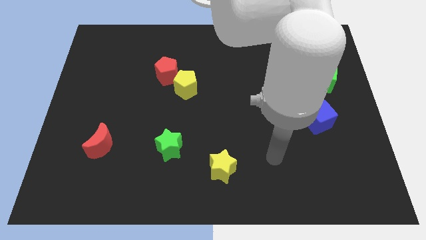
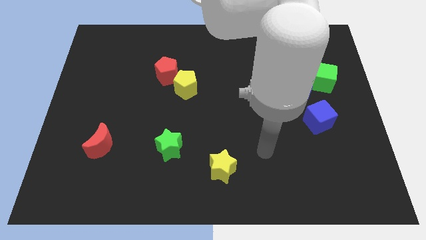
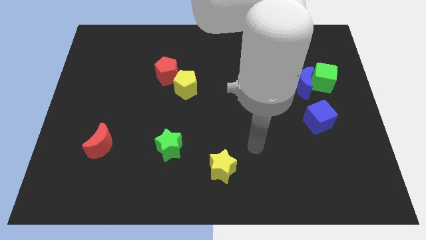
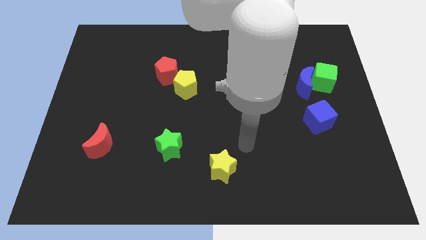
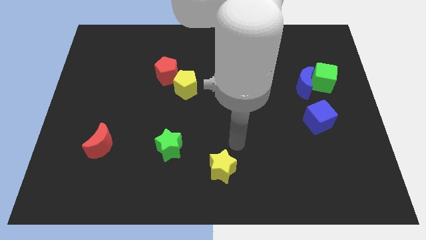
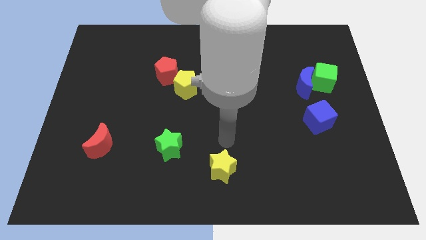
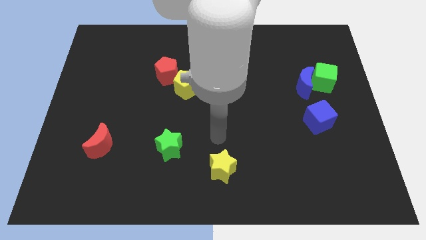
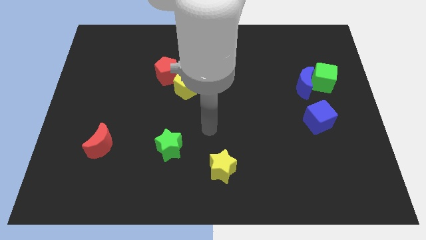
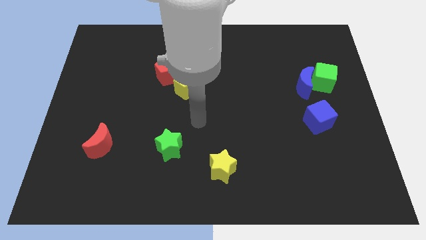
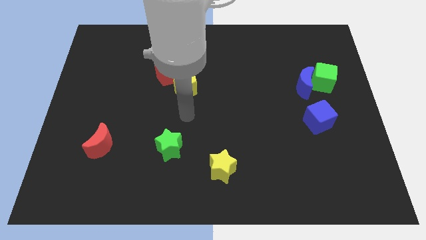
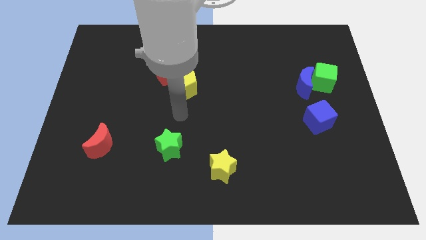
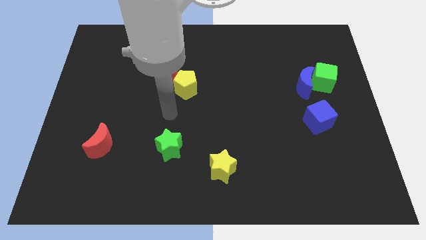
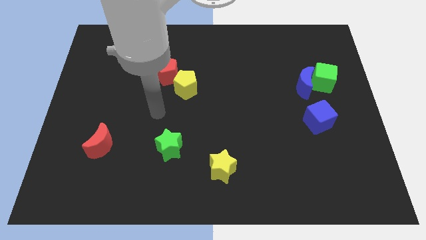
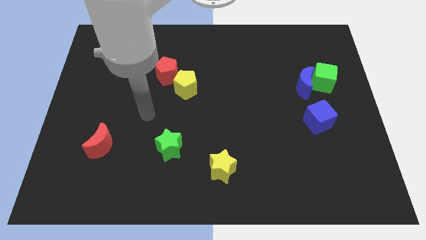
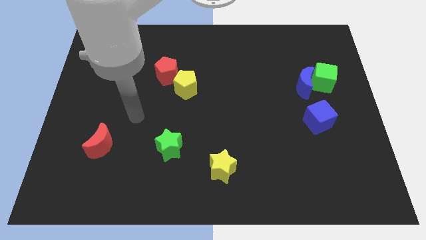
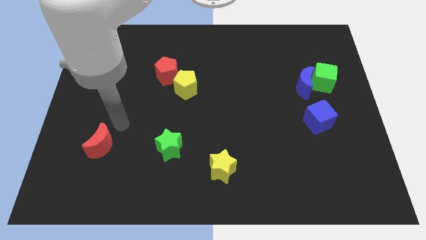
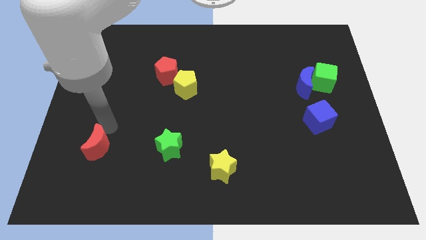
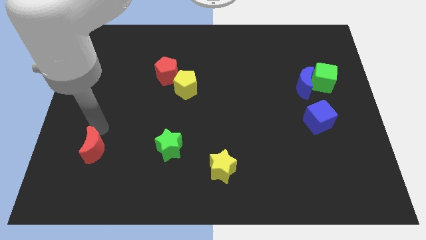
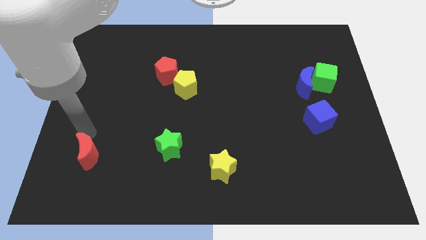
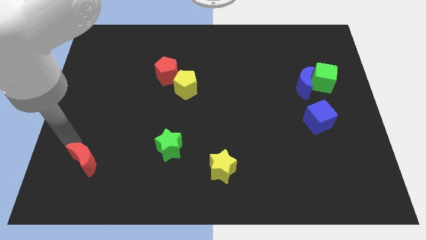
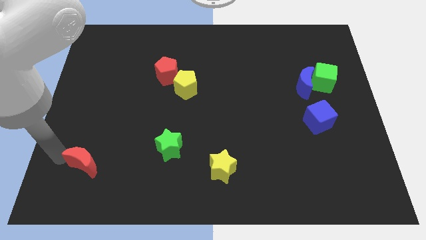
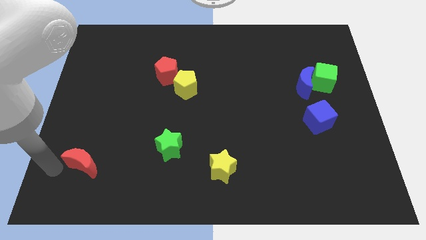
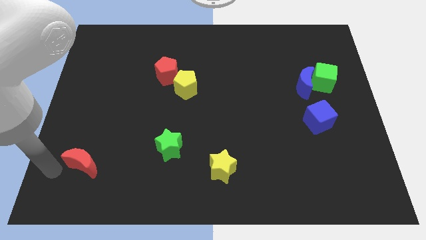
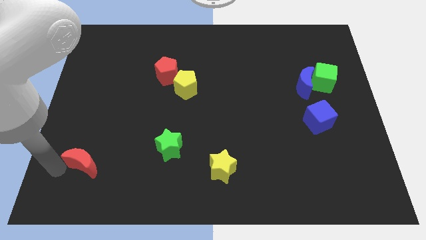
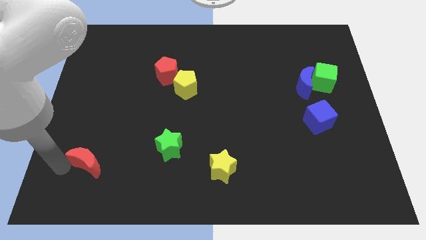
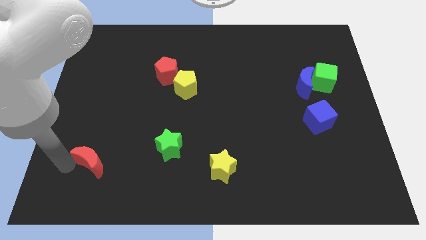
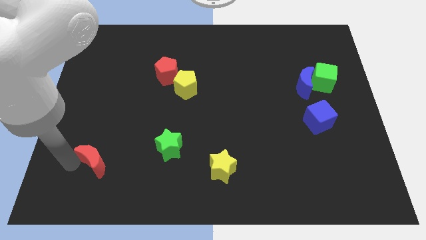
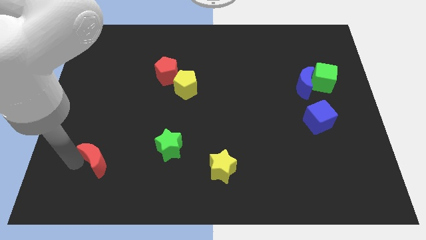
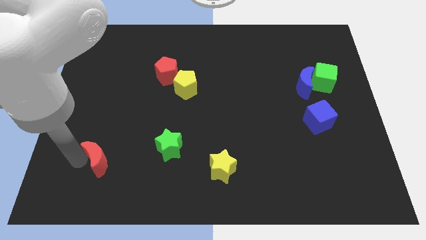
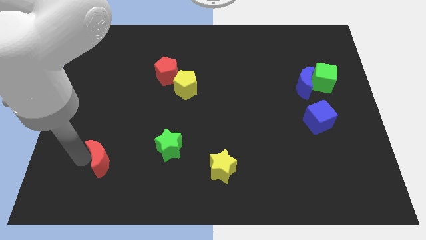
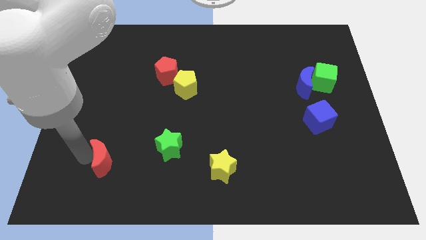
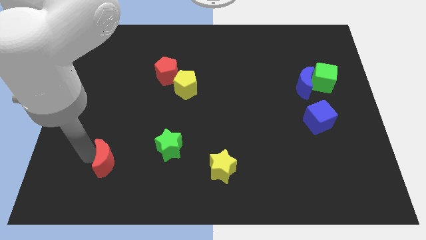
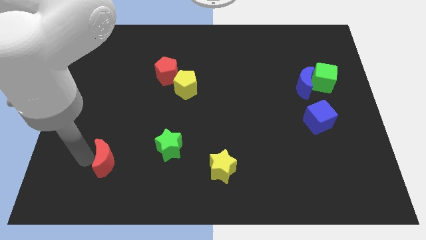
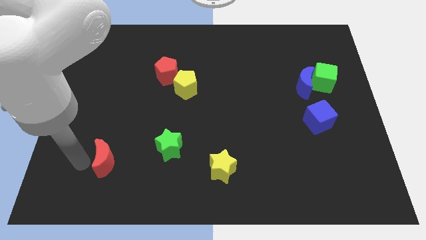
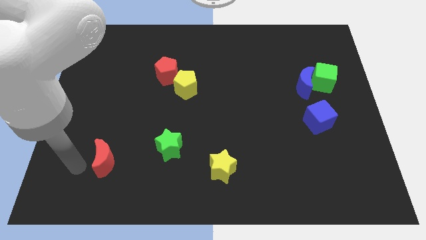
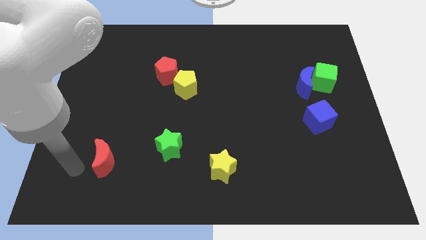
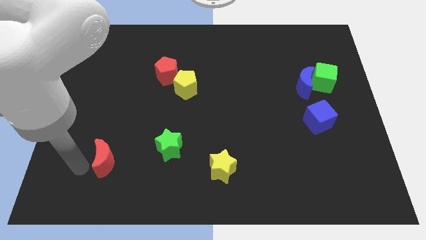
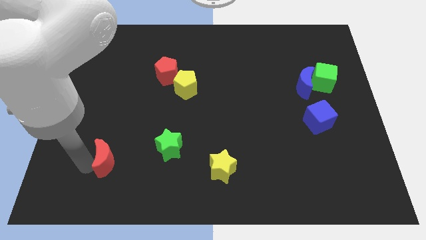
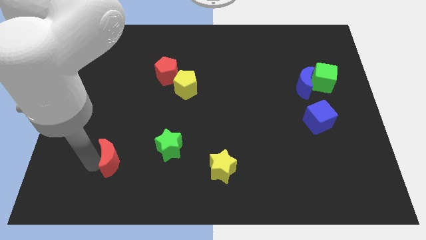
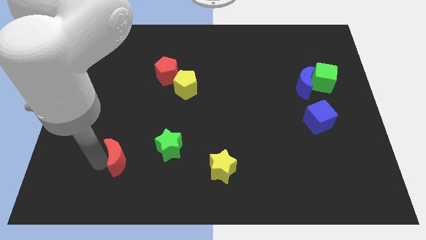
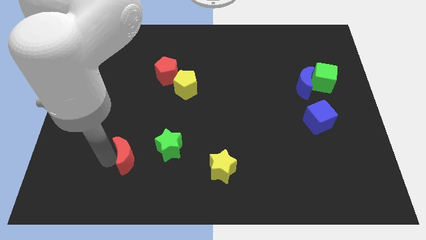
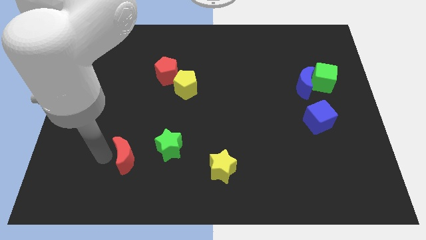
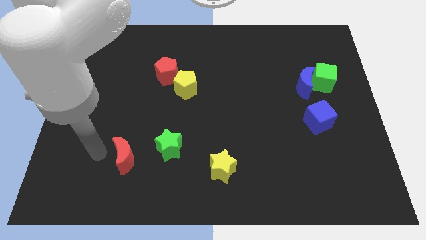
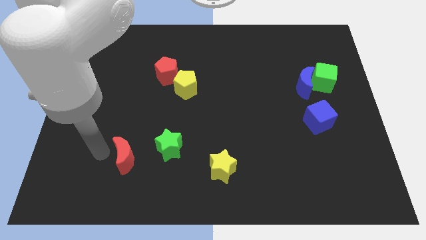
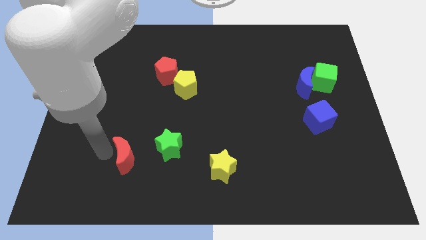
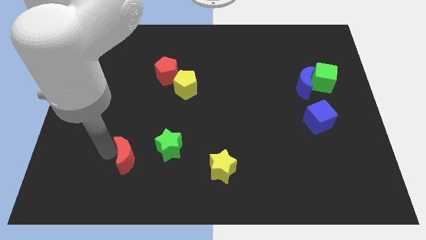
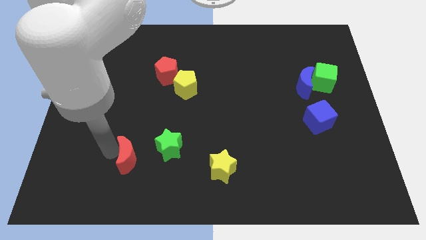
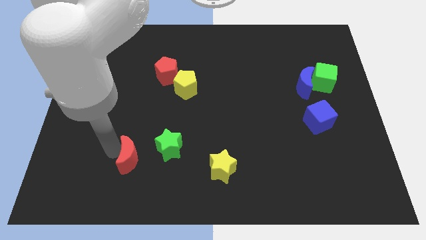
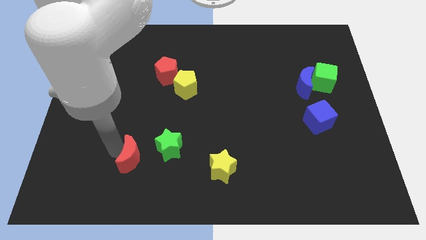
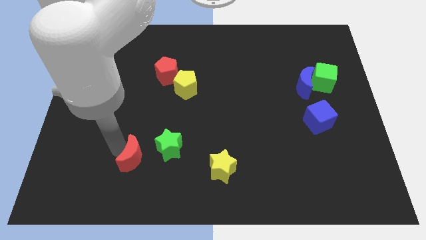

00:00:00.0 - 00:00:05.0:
slightly push the red moon to the right

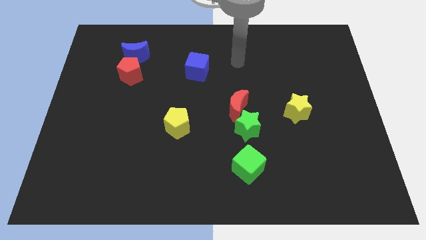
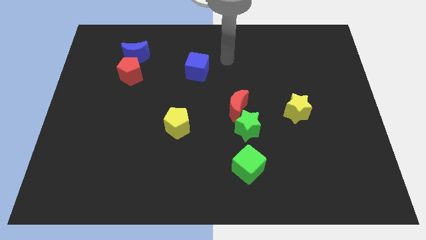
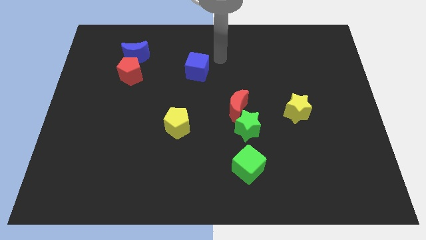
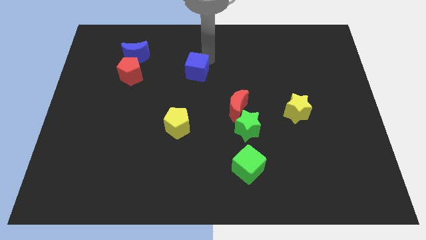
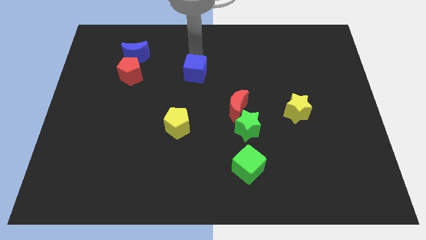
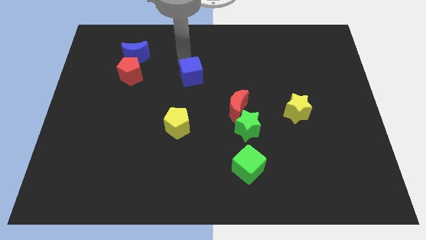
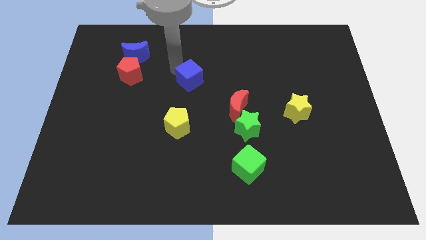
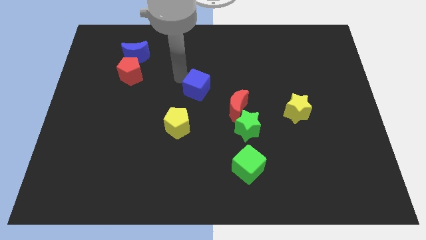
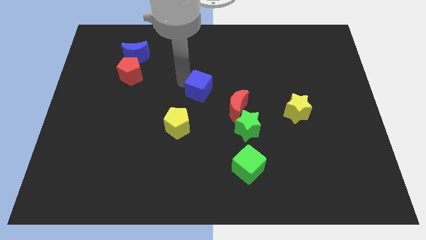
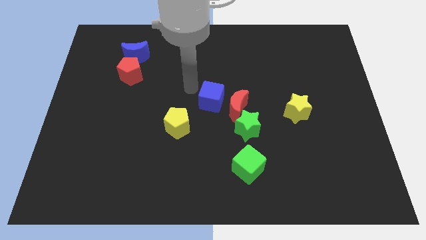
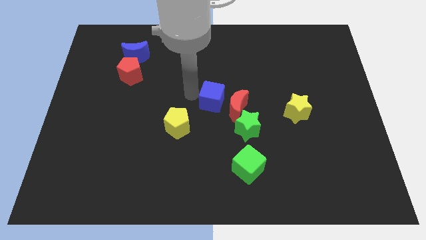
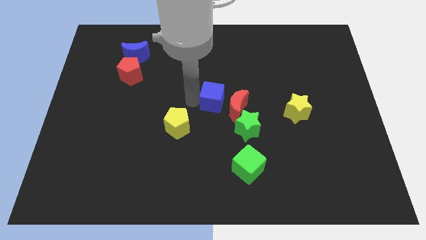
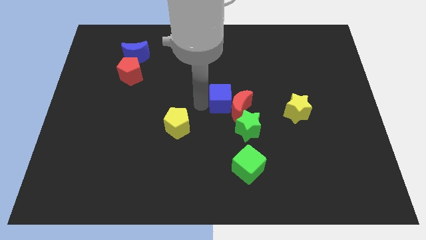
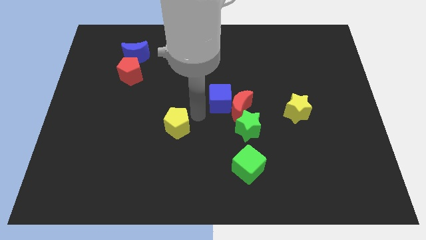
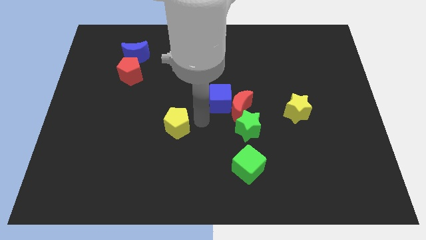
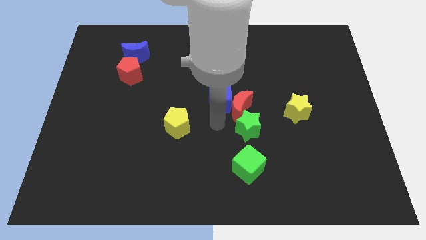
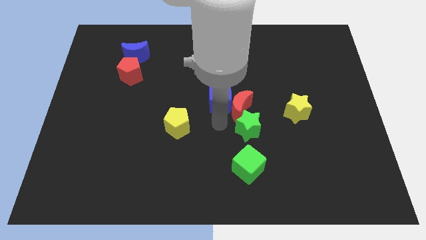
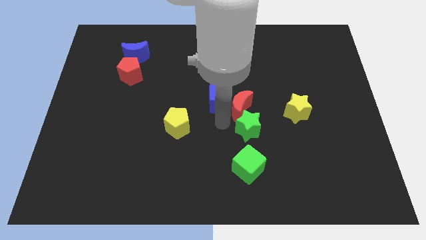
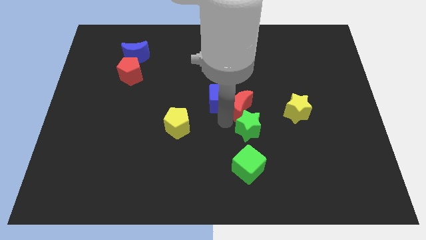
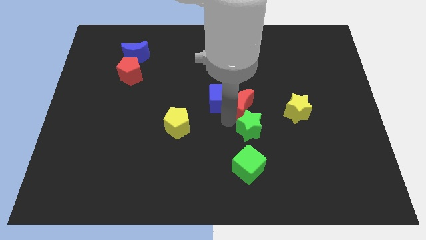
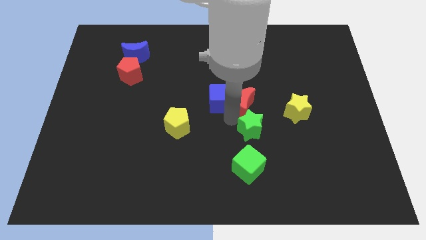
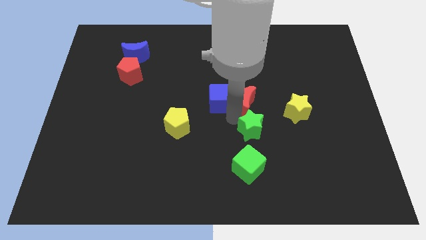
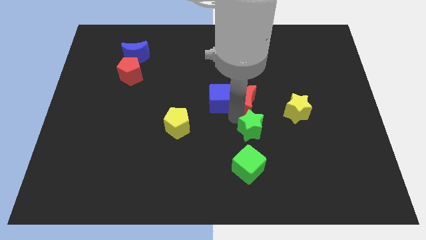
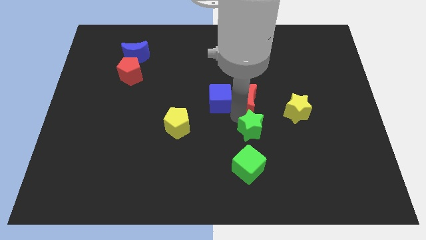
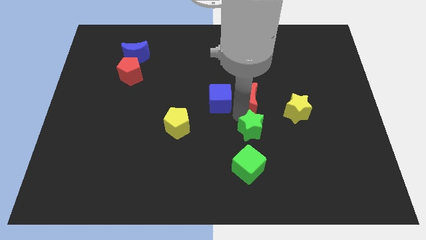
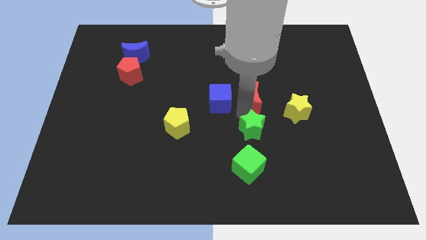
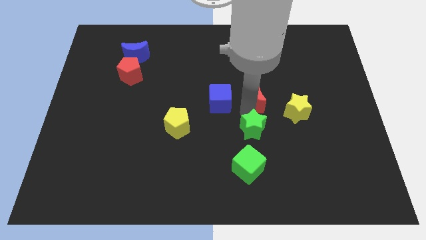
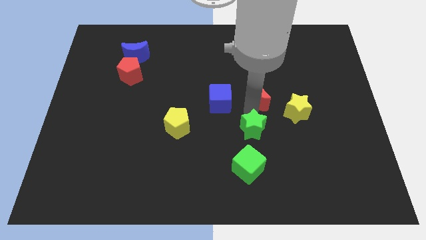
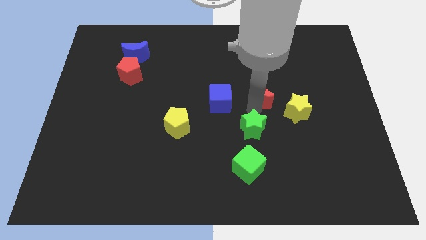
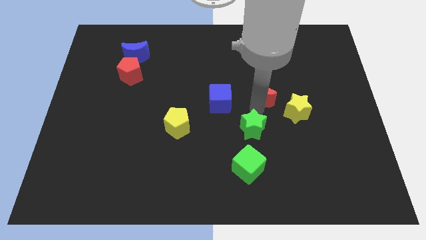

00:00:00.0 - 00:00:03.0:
push the red moon diagonally upwards and to the right a little
